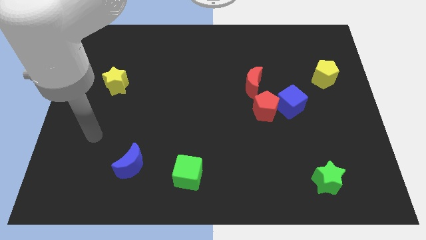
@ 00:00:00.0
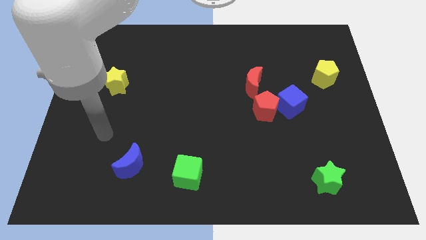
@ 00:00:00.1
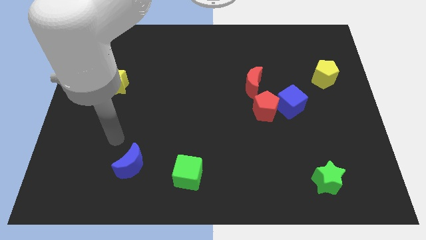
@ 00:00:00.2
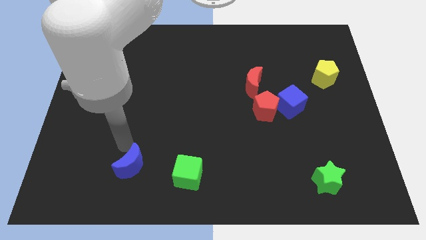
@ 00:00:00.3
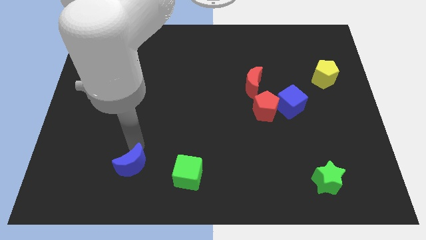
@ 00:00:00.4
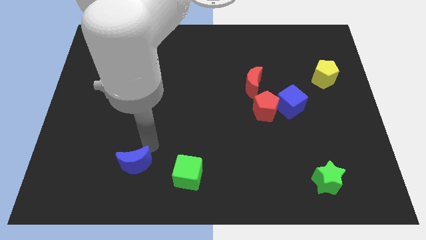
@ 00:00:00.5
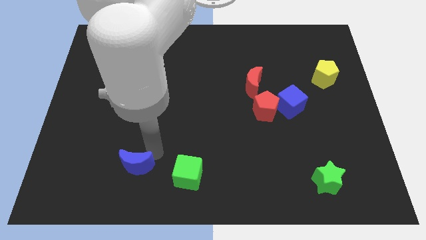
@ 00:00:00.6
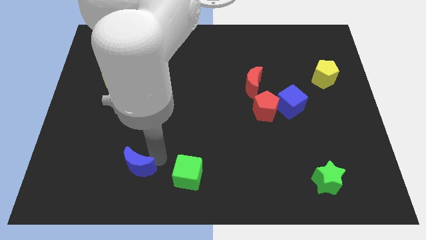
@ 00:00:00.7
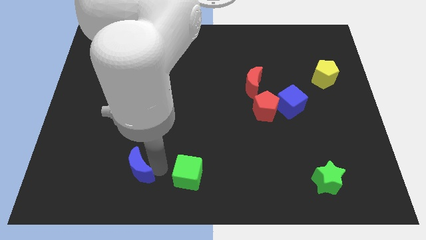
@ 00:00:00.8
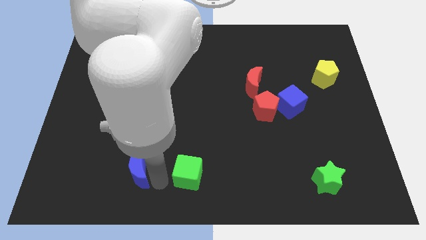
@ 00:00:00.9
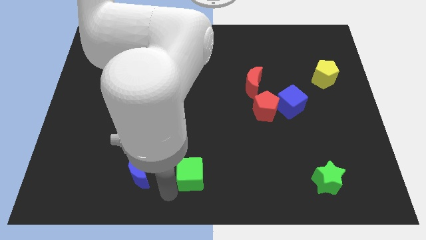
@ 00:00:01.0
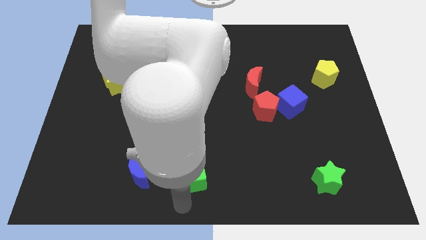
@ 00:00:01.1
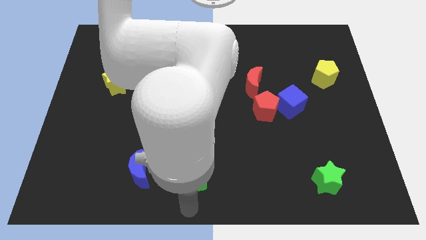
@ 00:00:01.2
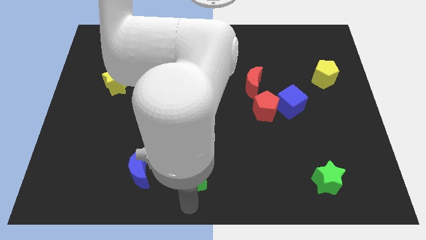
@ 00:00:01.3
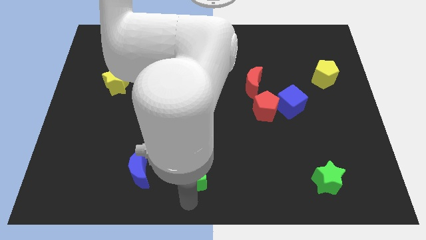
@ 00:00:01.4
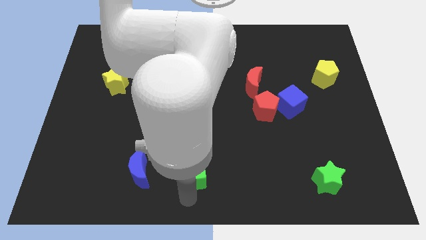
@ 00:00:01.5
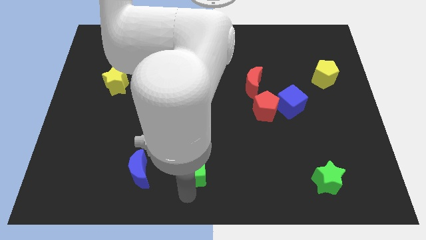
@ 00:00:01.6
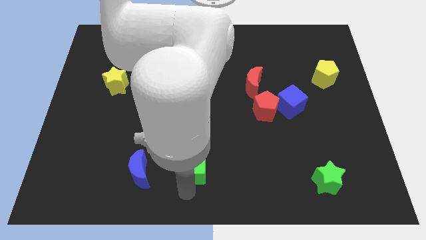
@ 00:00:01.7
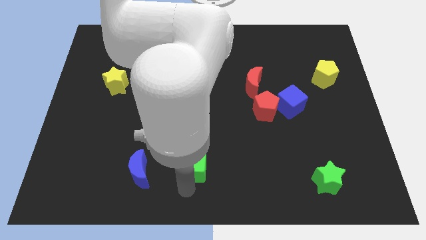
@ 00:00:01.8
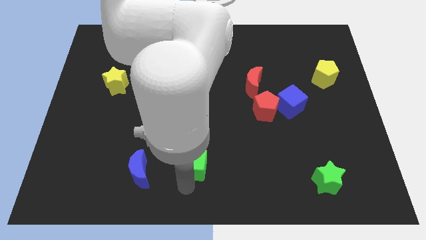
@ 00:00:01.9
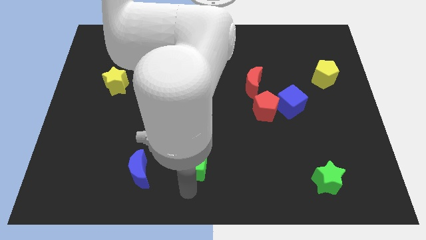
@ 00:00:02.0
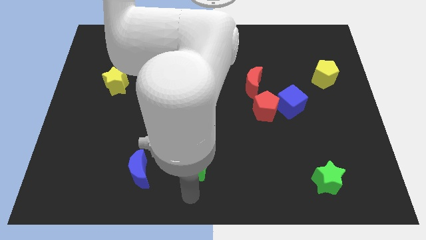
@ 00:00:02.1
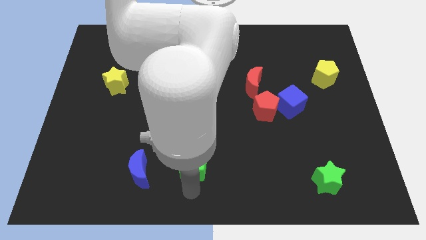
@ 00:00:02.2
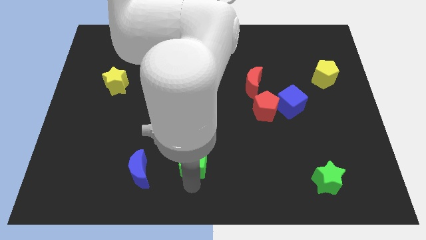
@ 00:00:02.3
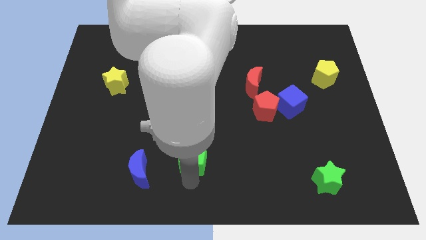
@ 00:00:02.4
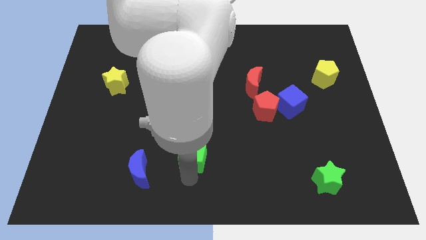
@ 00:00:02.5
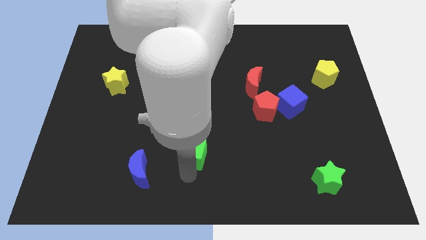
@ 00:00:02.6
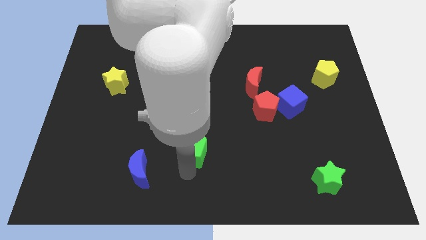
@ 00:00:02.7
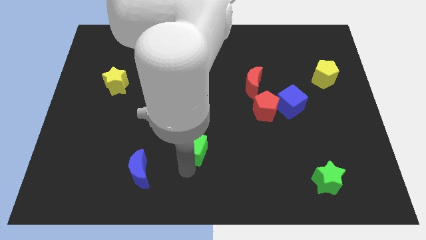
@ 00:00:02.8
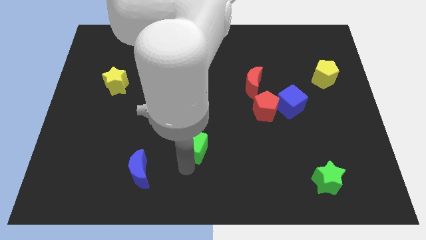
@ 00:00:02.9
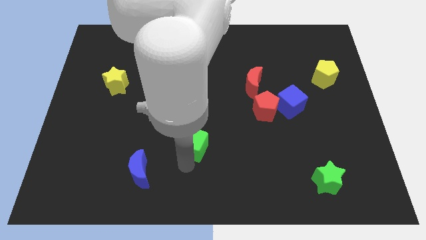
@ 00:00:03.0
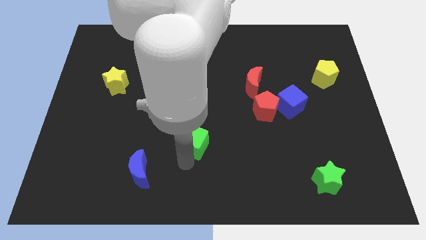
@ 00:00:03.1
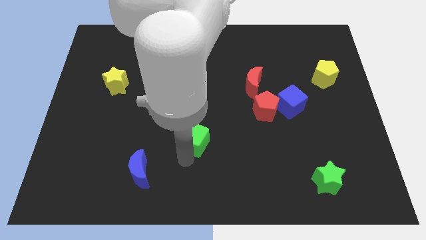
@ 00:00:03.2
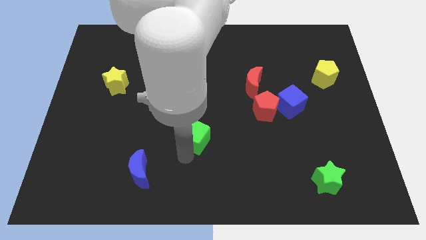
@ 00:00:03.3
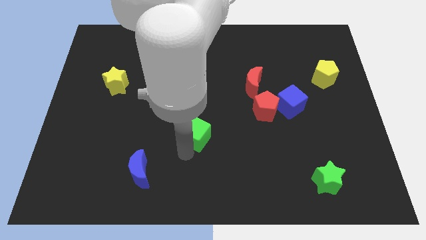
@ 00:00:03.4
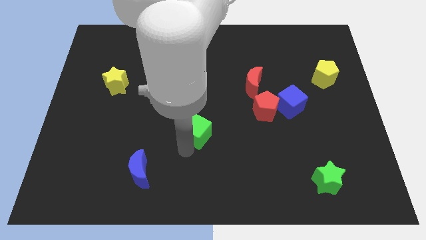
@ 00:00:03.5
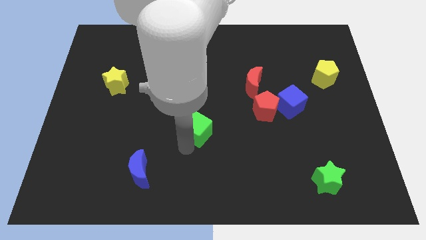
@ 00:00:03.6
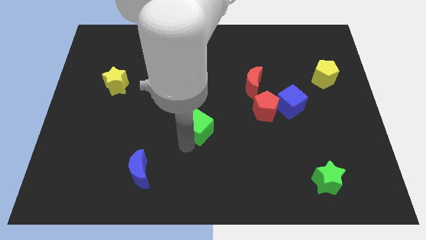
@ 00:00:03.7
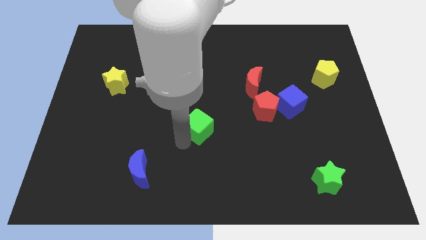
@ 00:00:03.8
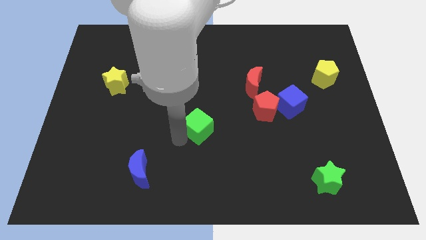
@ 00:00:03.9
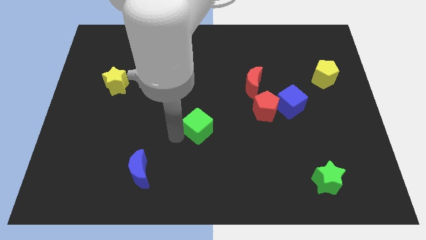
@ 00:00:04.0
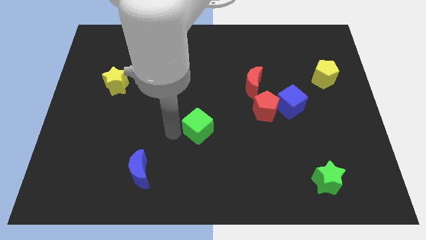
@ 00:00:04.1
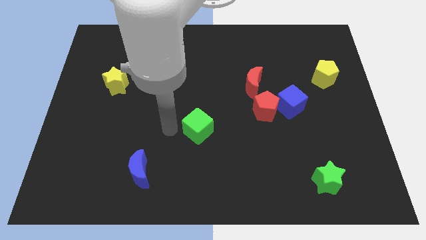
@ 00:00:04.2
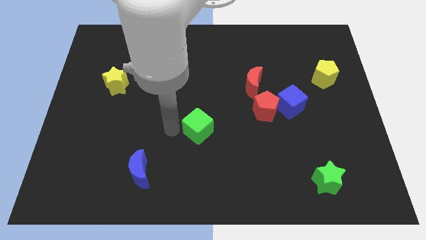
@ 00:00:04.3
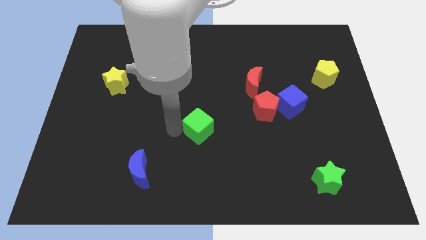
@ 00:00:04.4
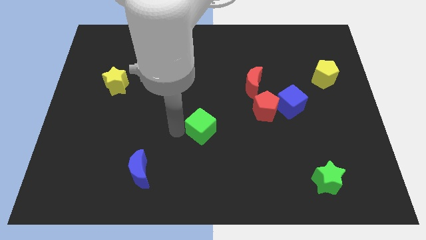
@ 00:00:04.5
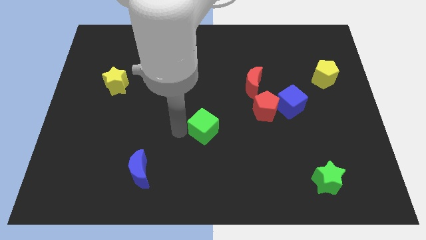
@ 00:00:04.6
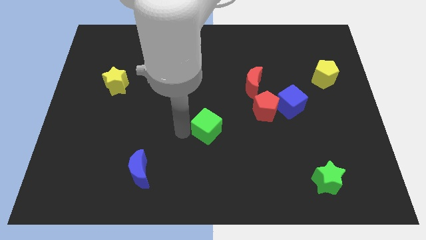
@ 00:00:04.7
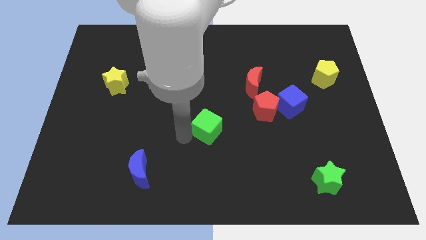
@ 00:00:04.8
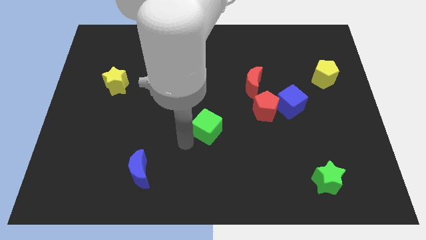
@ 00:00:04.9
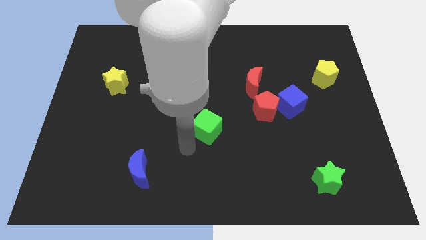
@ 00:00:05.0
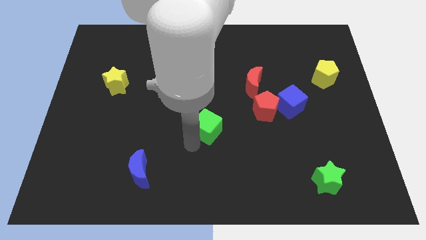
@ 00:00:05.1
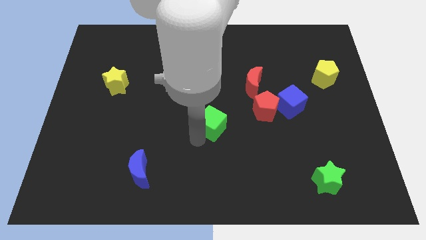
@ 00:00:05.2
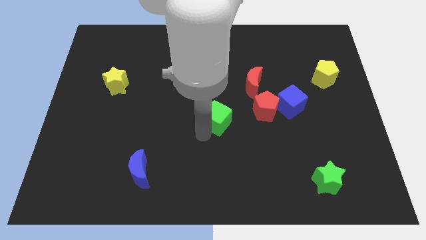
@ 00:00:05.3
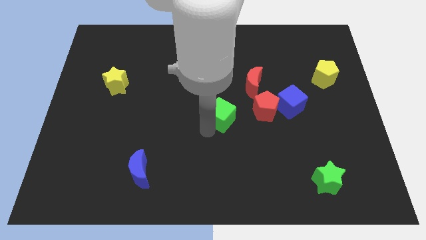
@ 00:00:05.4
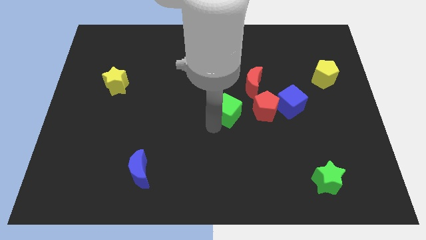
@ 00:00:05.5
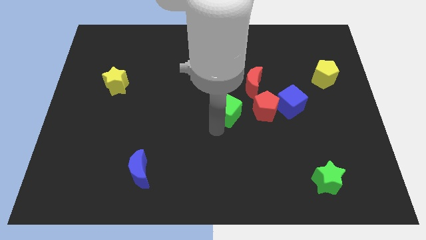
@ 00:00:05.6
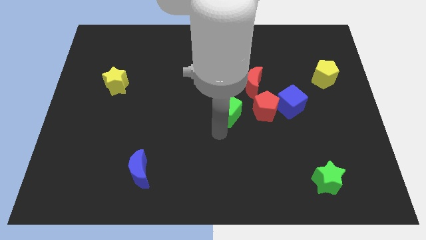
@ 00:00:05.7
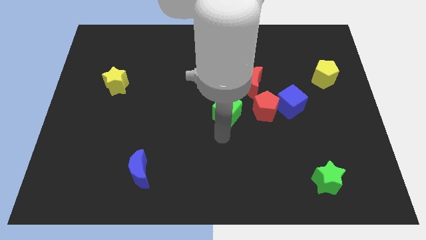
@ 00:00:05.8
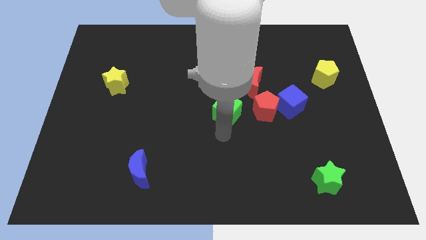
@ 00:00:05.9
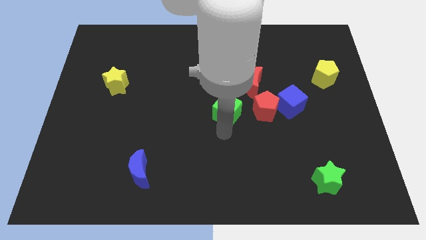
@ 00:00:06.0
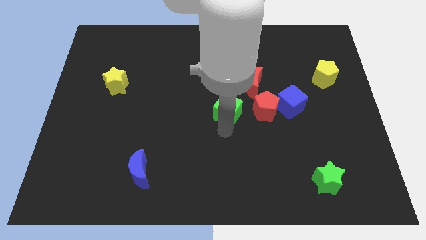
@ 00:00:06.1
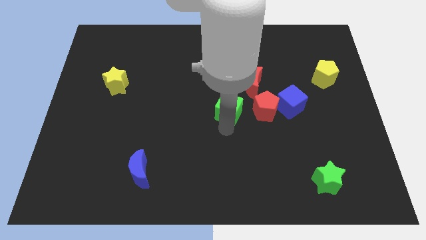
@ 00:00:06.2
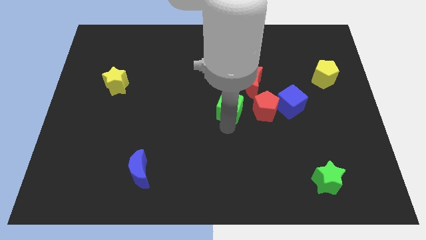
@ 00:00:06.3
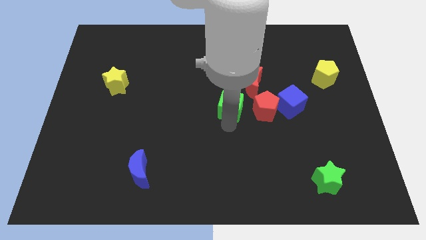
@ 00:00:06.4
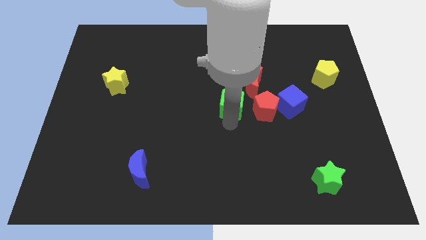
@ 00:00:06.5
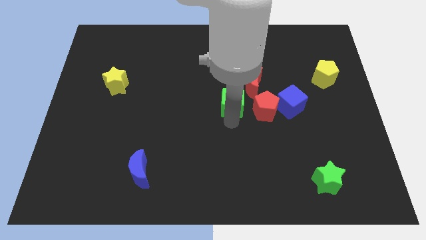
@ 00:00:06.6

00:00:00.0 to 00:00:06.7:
slide the green cube diagonally up and to the left of the red pentagon

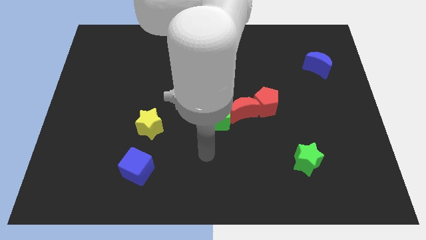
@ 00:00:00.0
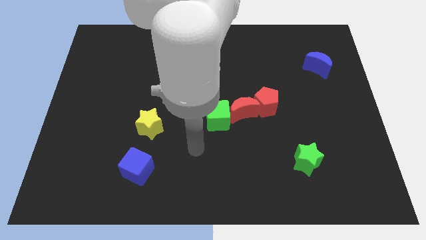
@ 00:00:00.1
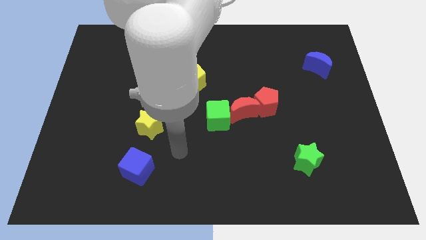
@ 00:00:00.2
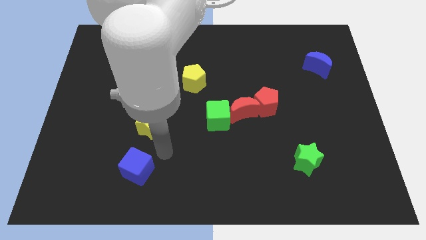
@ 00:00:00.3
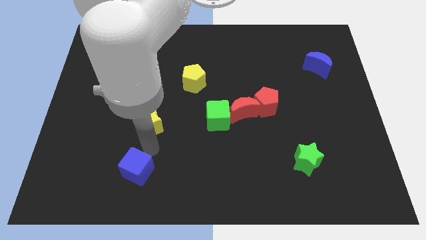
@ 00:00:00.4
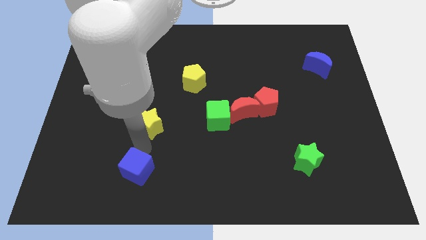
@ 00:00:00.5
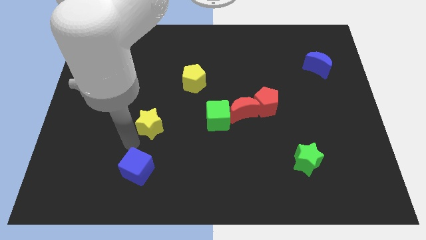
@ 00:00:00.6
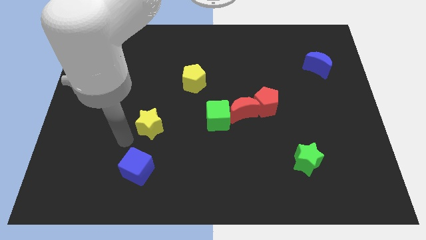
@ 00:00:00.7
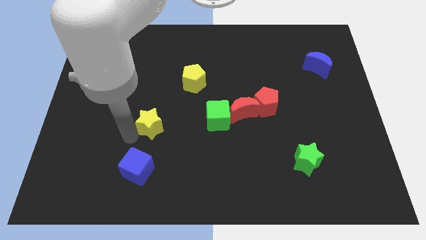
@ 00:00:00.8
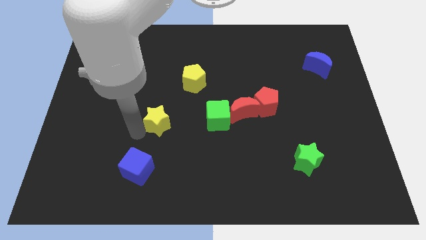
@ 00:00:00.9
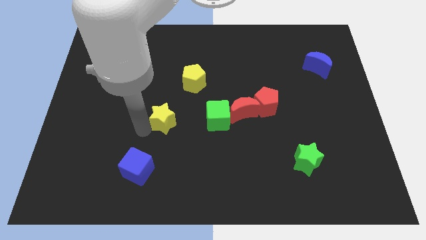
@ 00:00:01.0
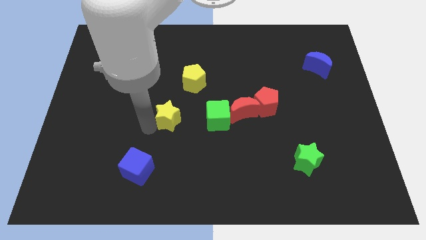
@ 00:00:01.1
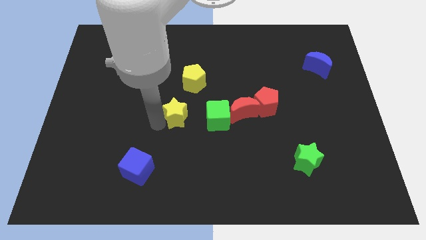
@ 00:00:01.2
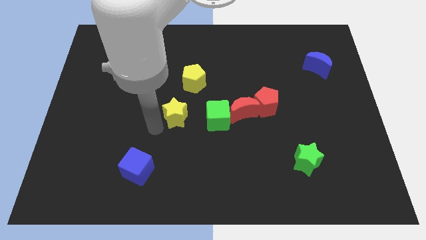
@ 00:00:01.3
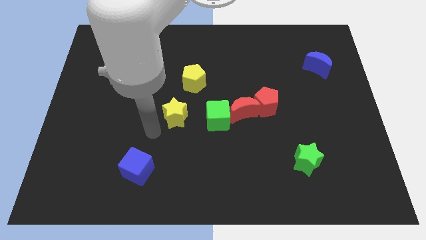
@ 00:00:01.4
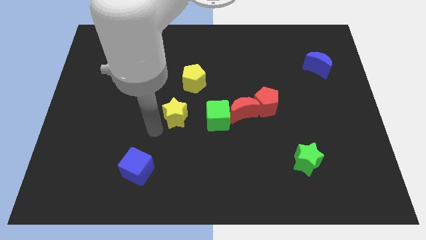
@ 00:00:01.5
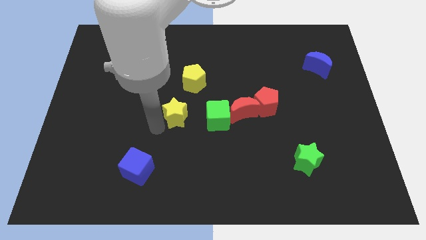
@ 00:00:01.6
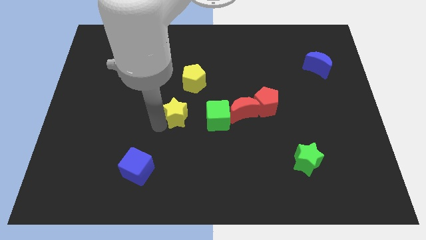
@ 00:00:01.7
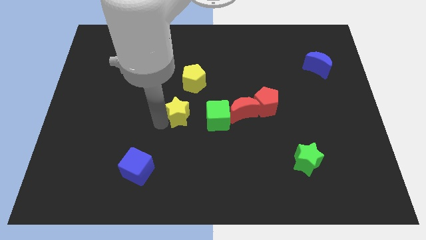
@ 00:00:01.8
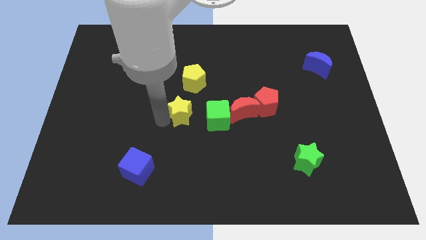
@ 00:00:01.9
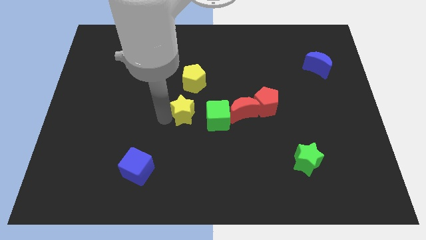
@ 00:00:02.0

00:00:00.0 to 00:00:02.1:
put the yellow star to the top left side of the green cube
